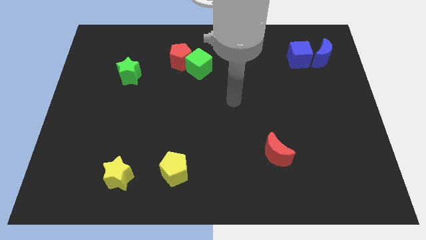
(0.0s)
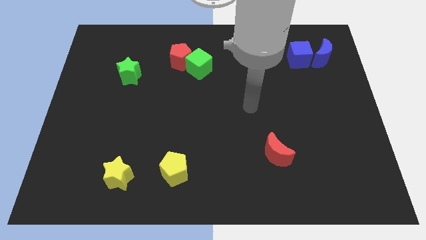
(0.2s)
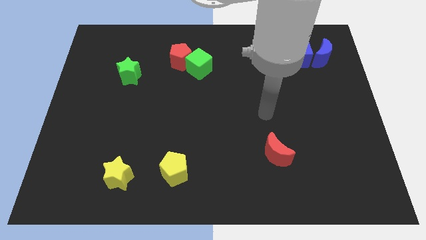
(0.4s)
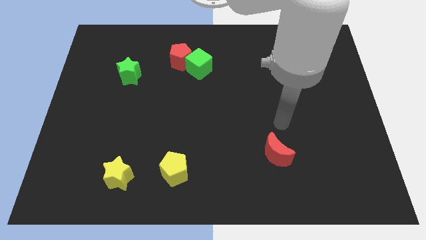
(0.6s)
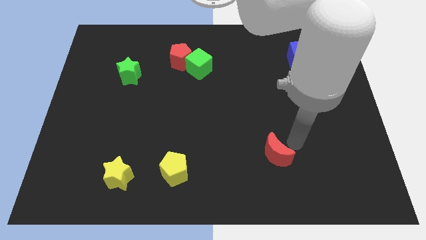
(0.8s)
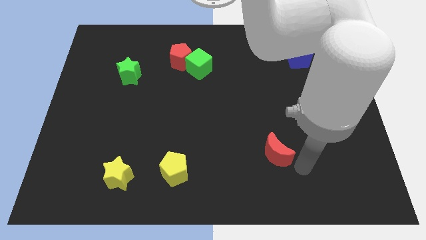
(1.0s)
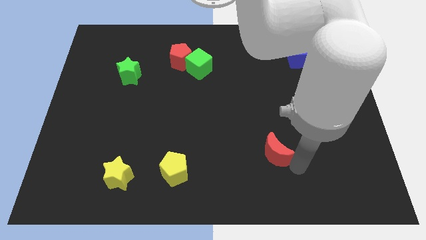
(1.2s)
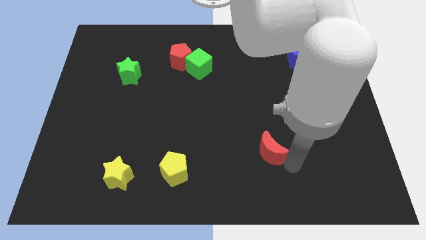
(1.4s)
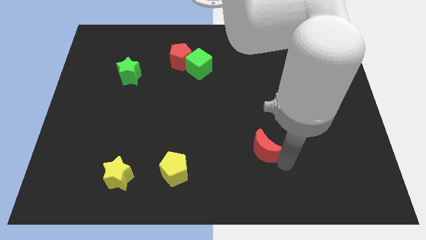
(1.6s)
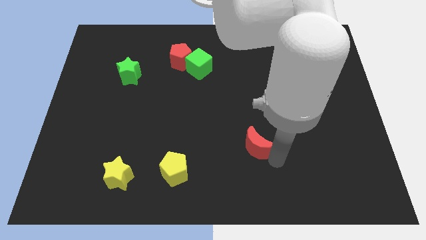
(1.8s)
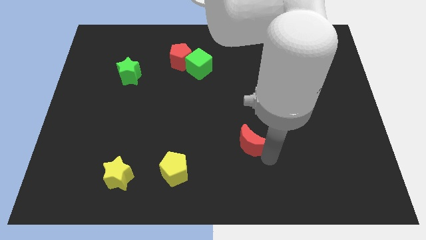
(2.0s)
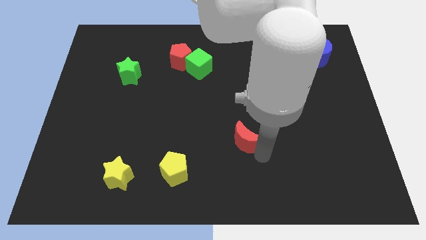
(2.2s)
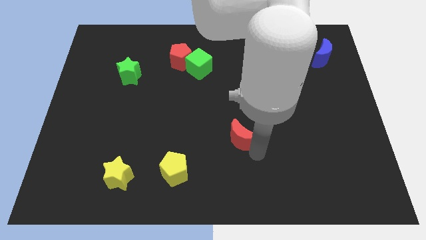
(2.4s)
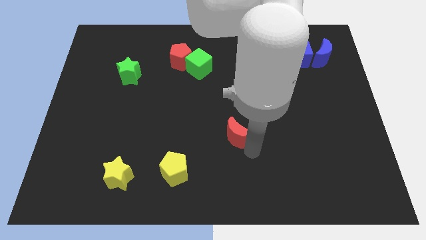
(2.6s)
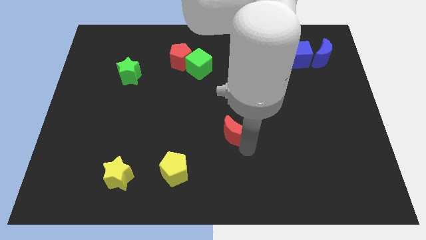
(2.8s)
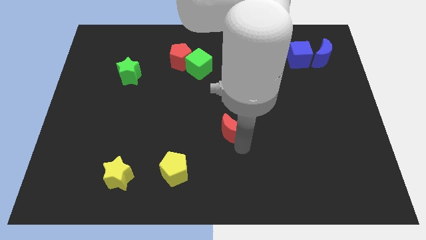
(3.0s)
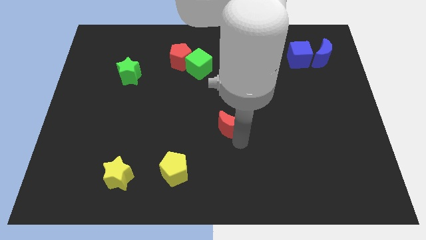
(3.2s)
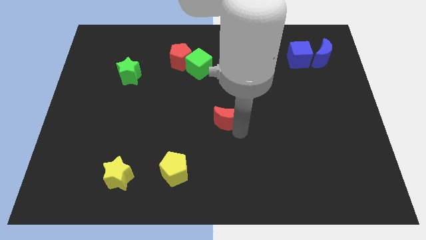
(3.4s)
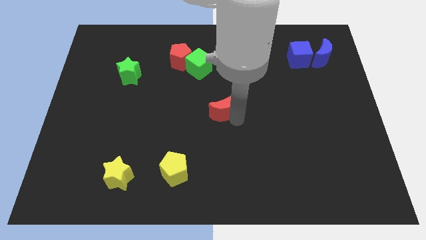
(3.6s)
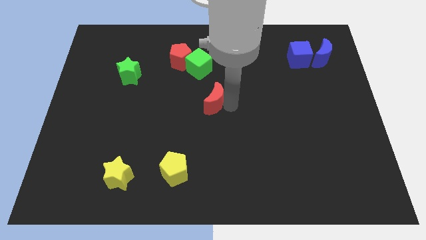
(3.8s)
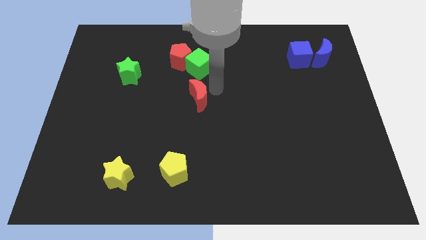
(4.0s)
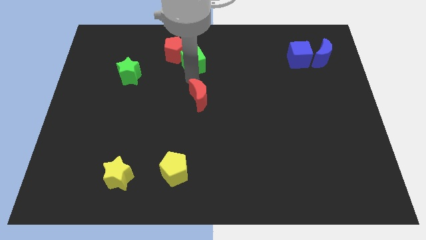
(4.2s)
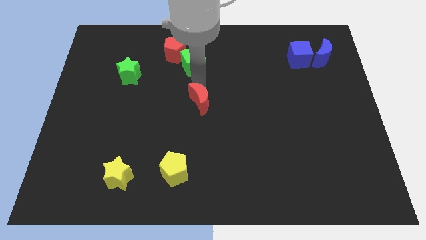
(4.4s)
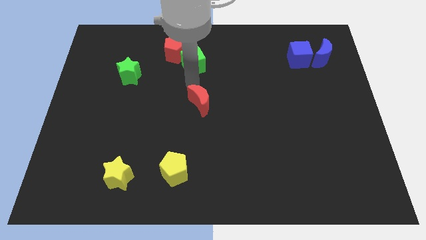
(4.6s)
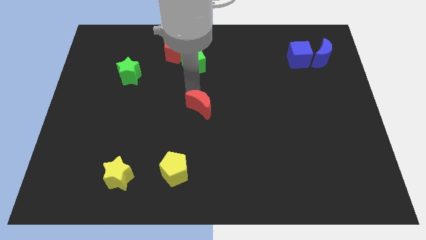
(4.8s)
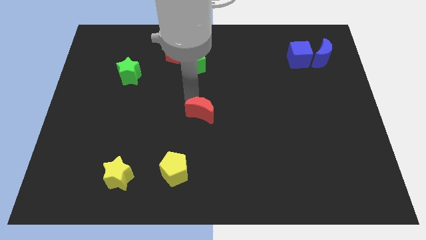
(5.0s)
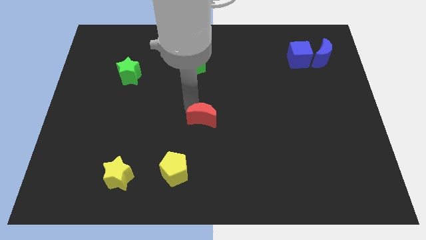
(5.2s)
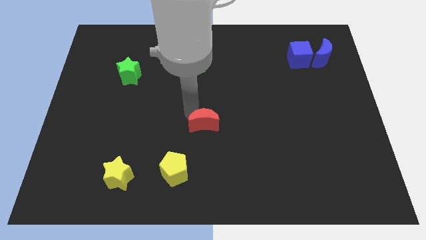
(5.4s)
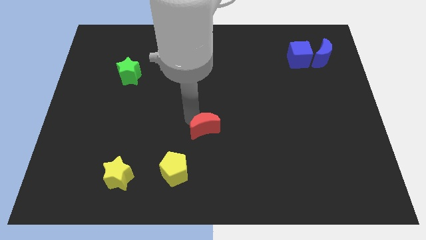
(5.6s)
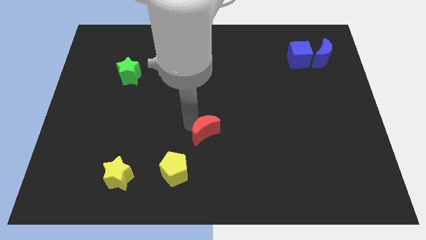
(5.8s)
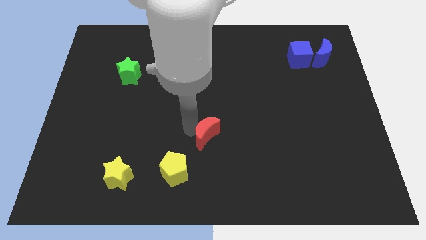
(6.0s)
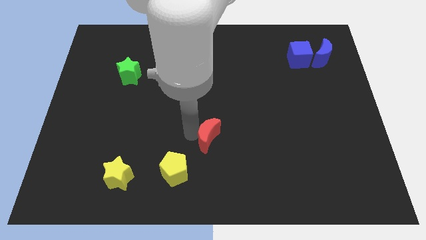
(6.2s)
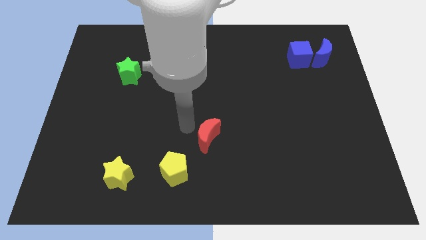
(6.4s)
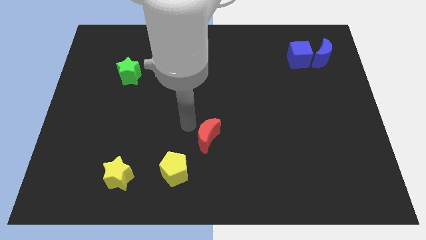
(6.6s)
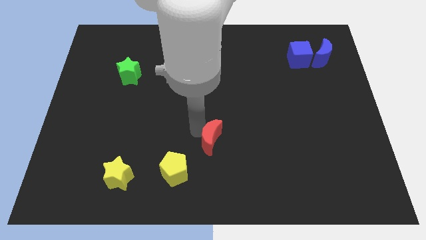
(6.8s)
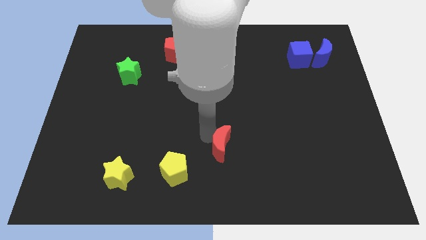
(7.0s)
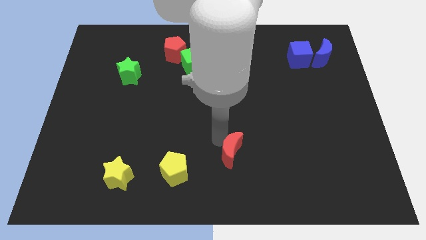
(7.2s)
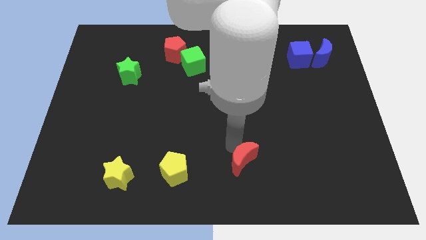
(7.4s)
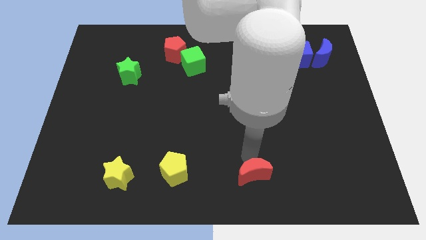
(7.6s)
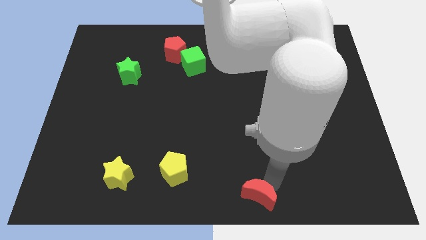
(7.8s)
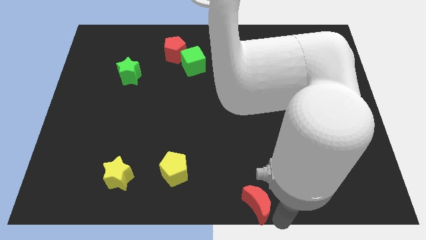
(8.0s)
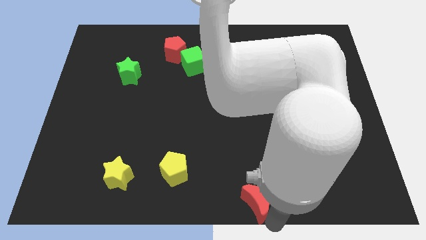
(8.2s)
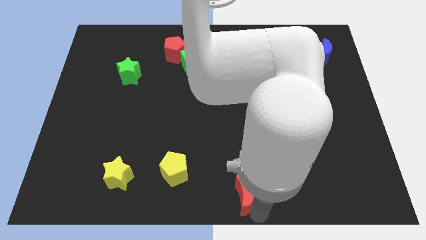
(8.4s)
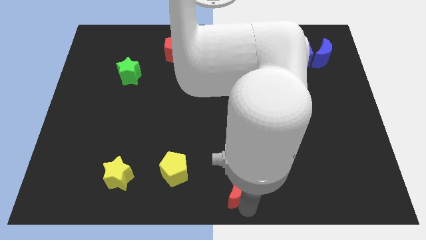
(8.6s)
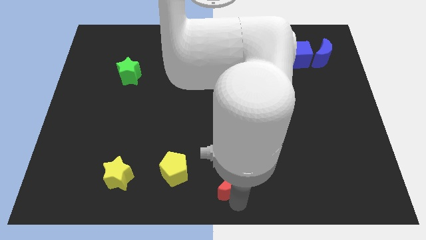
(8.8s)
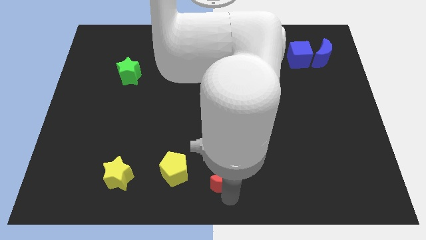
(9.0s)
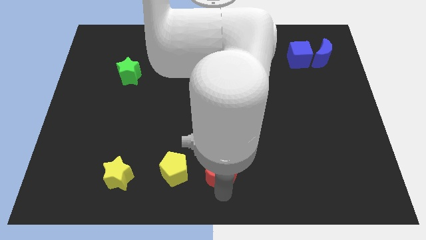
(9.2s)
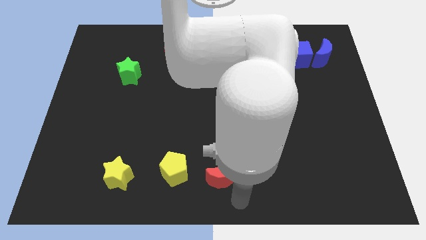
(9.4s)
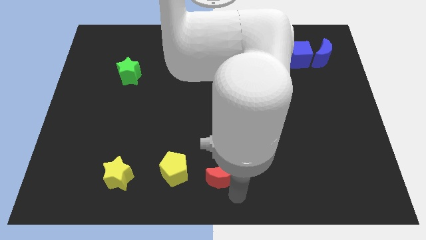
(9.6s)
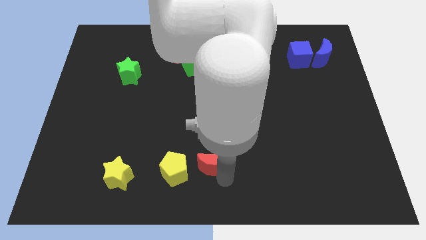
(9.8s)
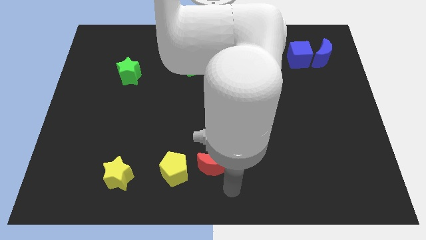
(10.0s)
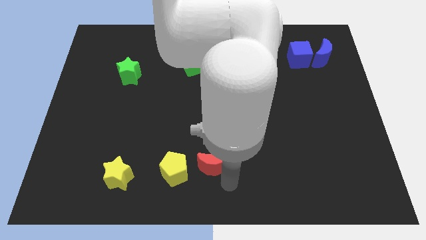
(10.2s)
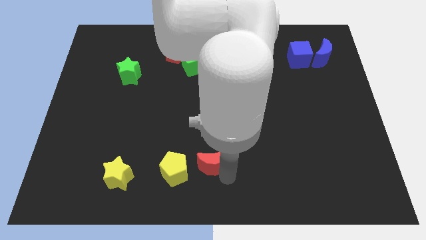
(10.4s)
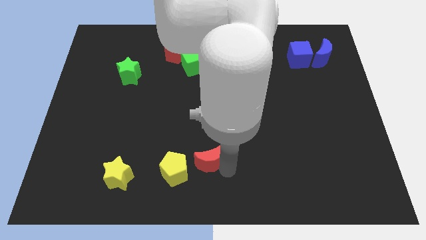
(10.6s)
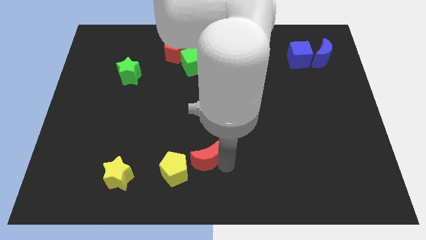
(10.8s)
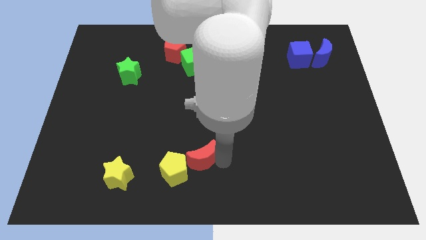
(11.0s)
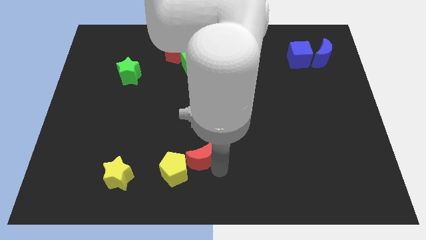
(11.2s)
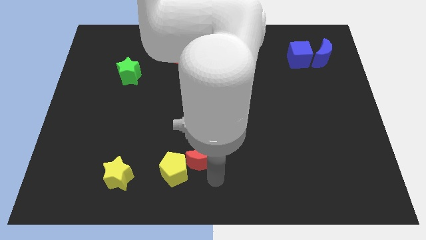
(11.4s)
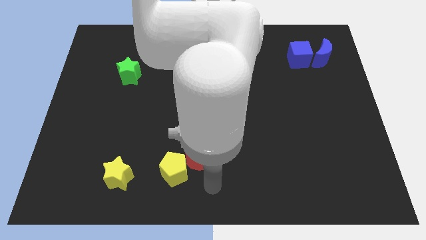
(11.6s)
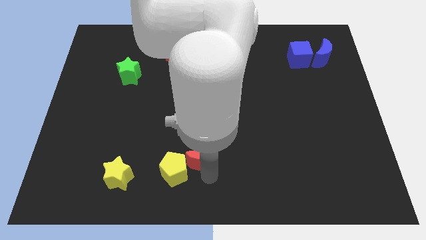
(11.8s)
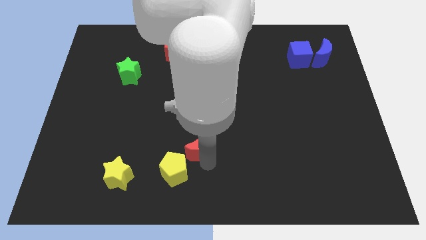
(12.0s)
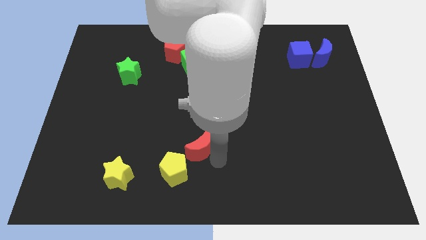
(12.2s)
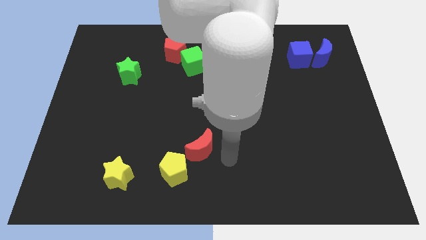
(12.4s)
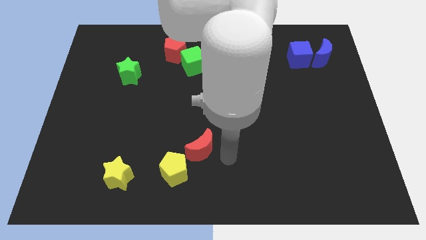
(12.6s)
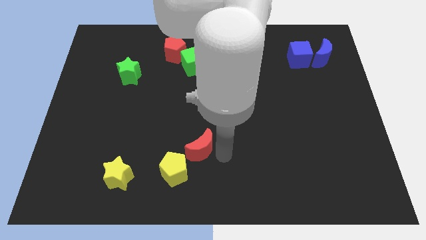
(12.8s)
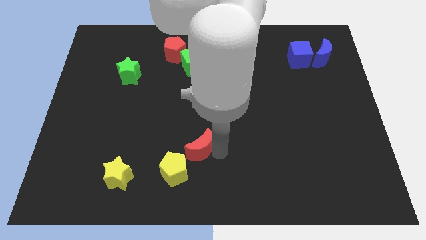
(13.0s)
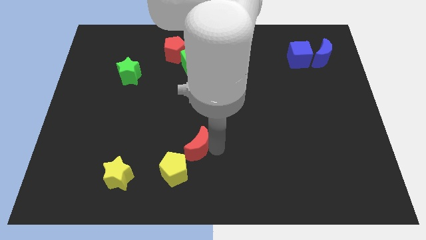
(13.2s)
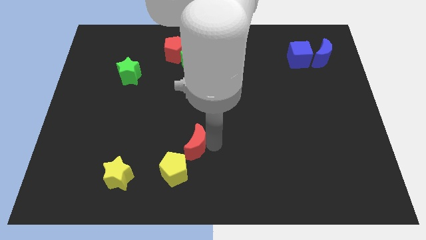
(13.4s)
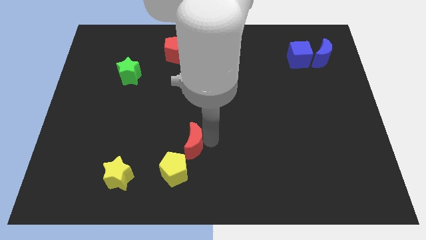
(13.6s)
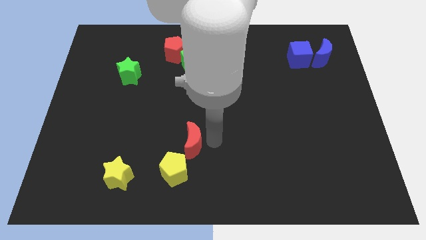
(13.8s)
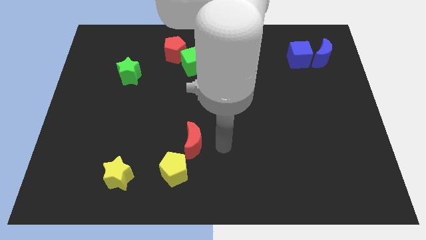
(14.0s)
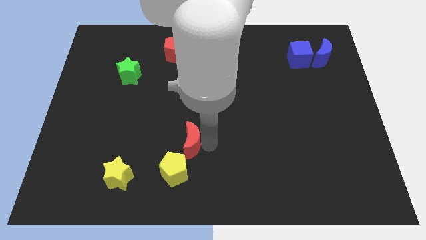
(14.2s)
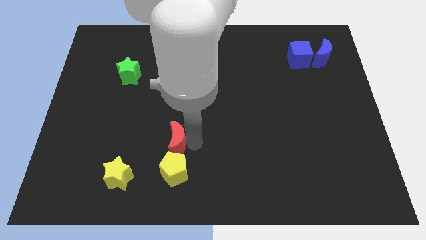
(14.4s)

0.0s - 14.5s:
move the red moon left

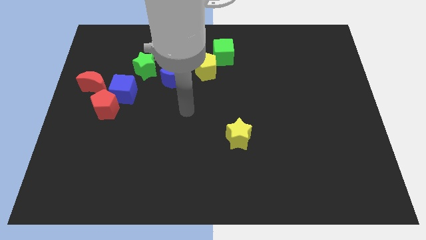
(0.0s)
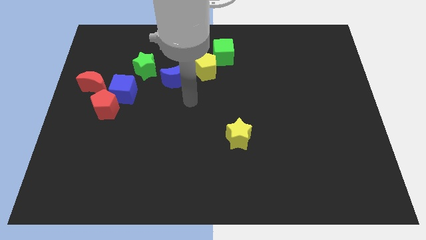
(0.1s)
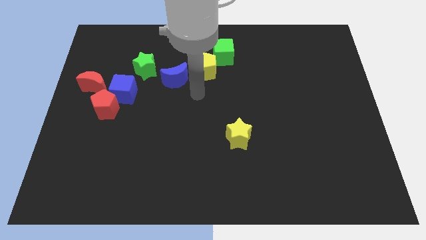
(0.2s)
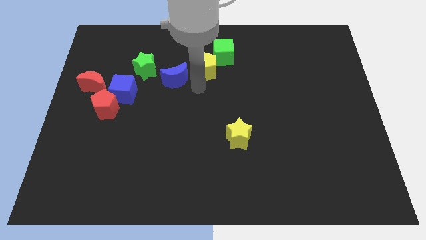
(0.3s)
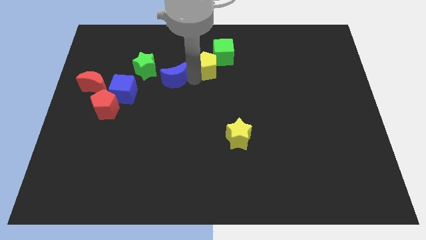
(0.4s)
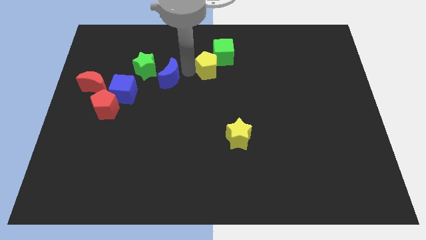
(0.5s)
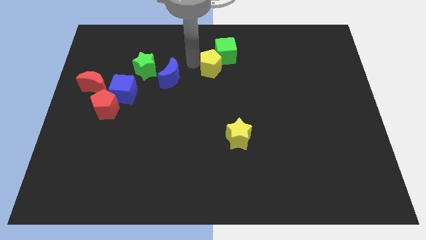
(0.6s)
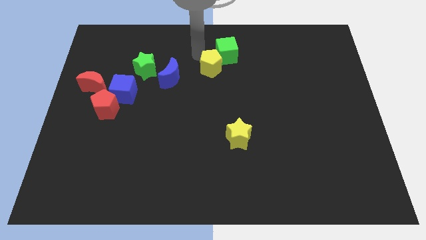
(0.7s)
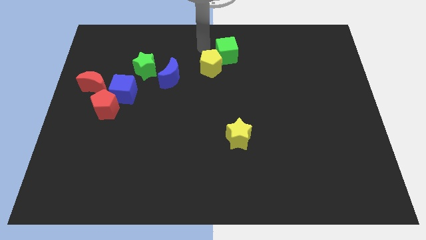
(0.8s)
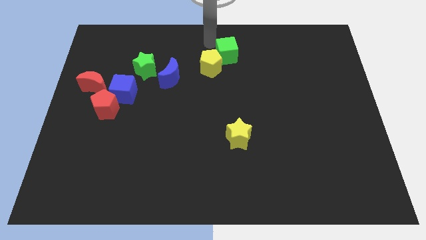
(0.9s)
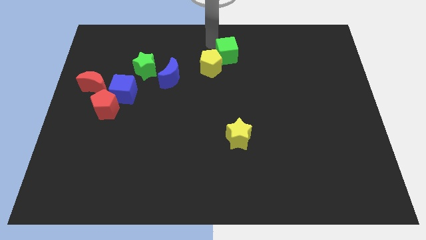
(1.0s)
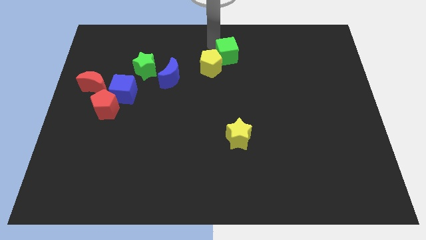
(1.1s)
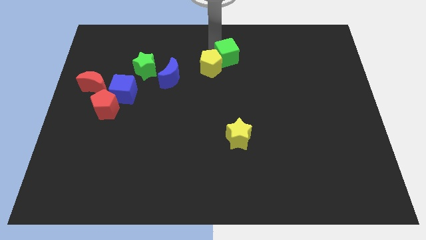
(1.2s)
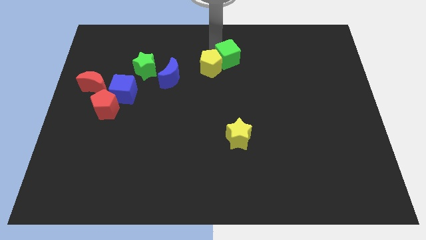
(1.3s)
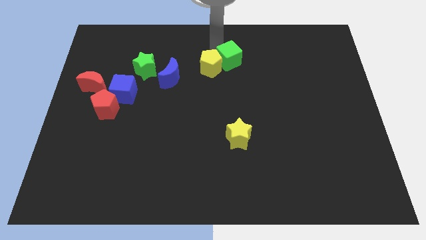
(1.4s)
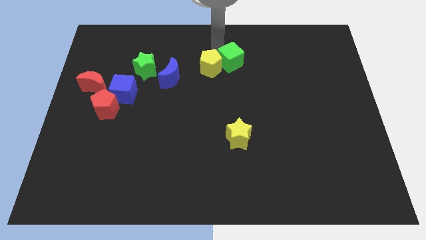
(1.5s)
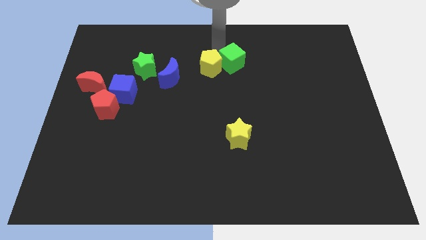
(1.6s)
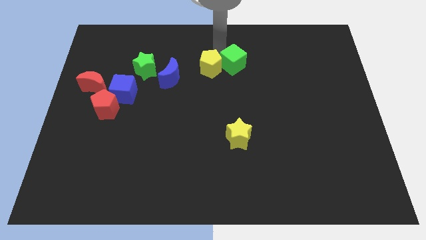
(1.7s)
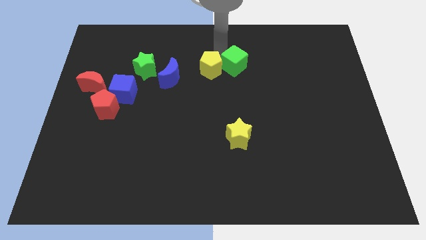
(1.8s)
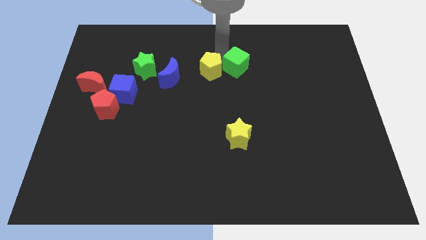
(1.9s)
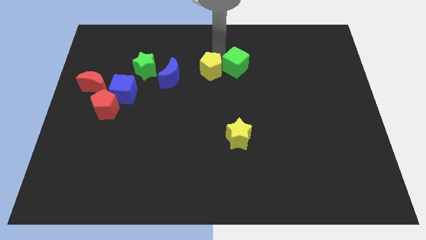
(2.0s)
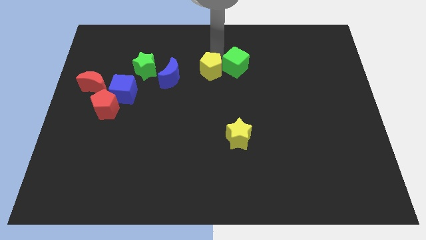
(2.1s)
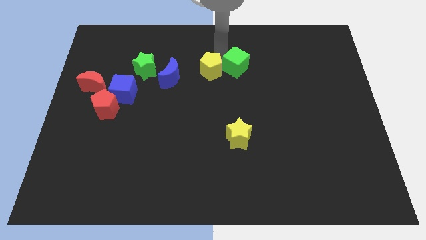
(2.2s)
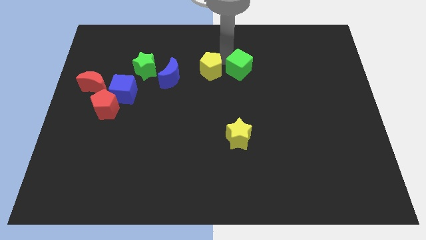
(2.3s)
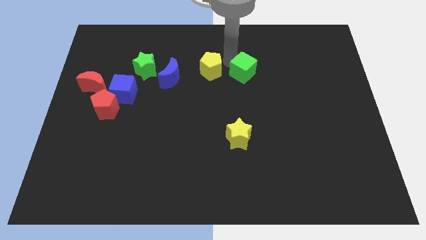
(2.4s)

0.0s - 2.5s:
slide the green cube somewhat downwards and right
